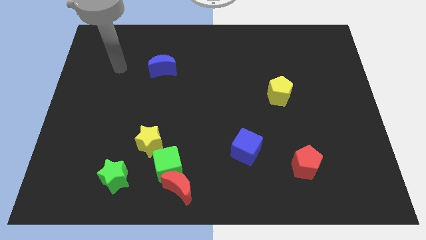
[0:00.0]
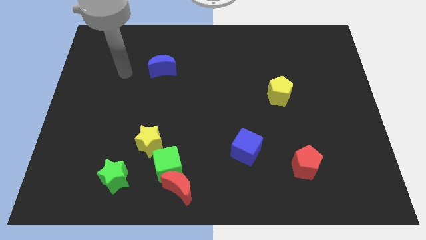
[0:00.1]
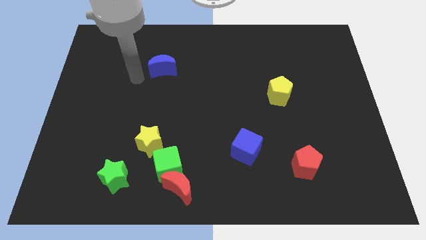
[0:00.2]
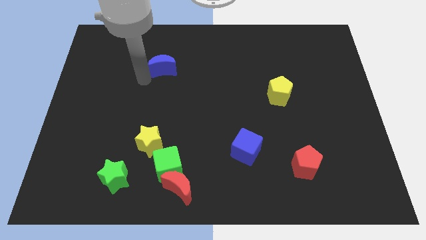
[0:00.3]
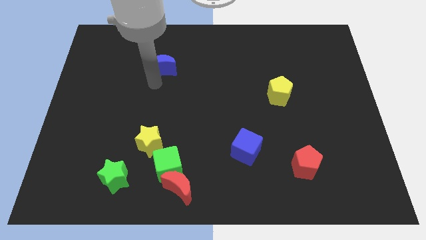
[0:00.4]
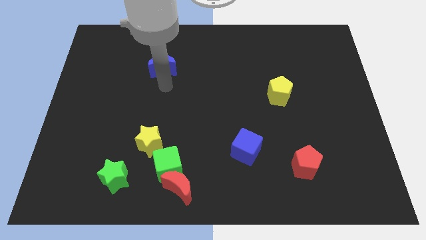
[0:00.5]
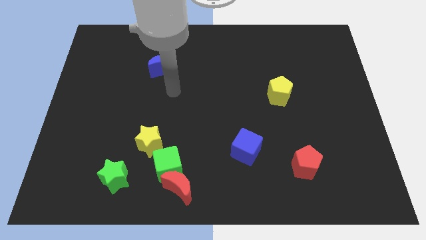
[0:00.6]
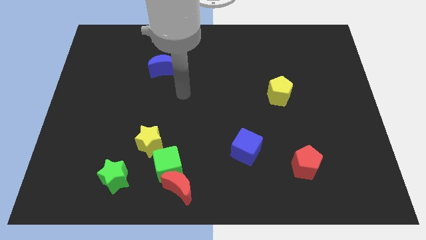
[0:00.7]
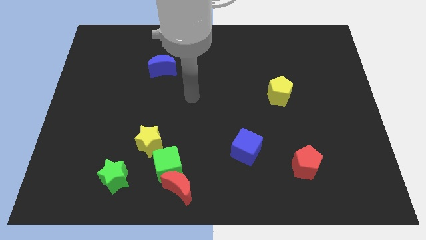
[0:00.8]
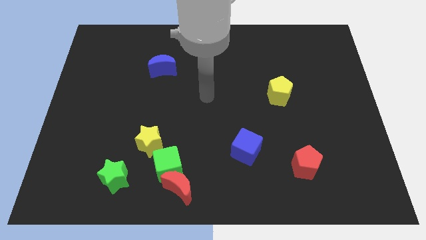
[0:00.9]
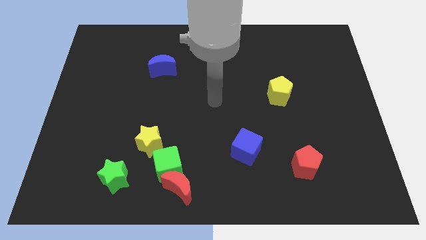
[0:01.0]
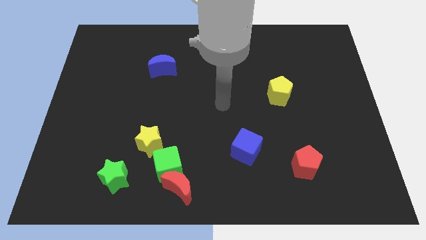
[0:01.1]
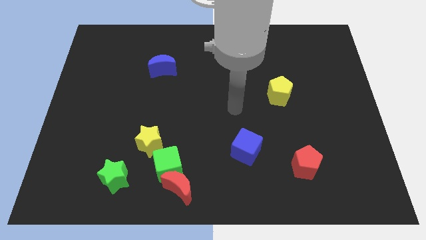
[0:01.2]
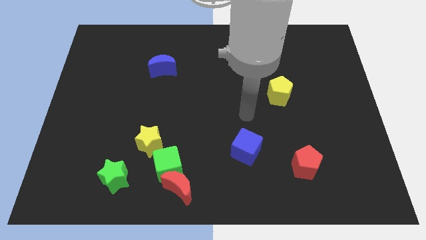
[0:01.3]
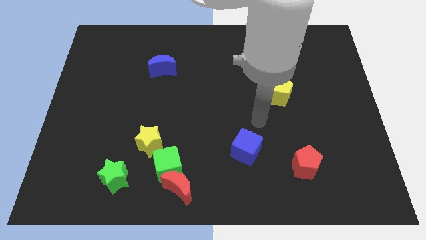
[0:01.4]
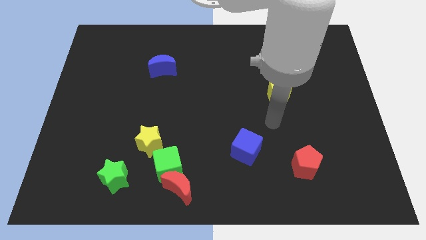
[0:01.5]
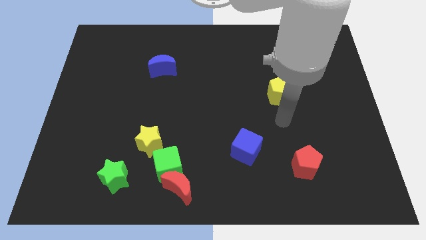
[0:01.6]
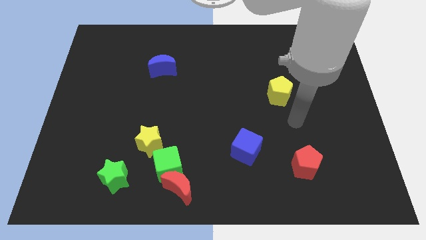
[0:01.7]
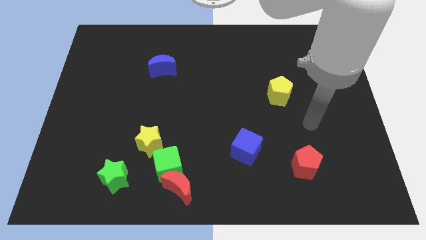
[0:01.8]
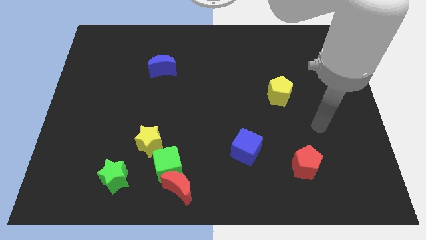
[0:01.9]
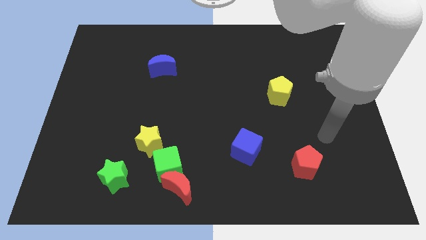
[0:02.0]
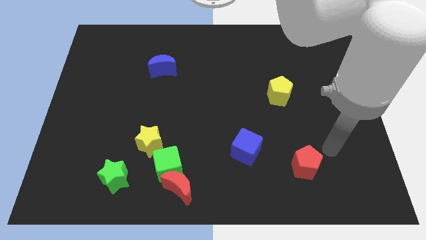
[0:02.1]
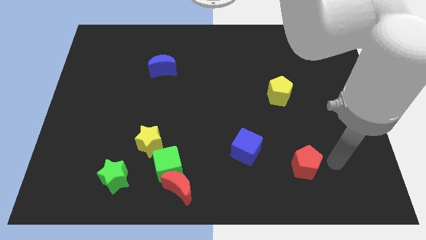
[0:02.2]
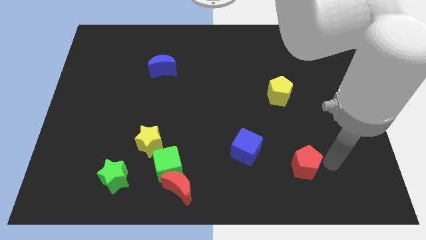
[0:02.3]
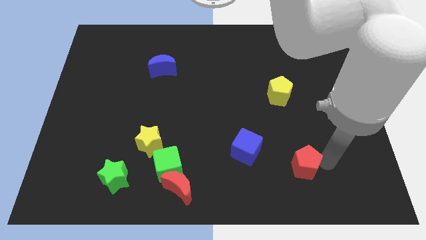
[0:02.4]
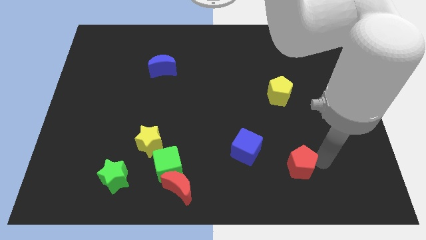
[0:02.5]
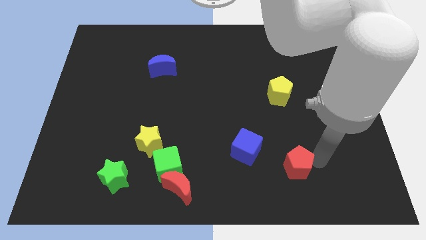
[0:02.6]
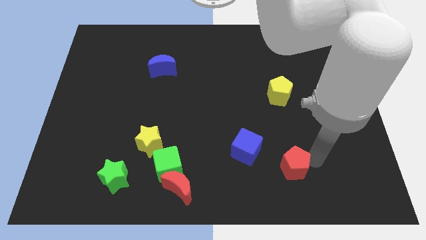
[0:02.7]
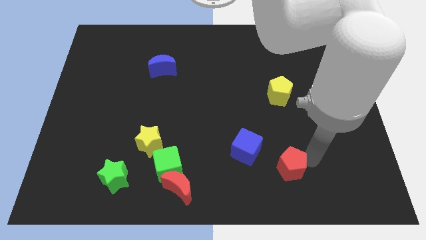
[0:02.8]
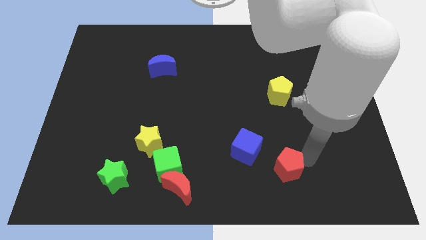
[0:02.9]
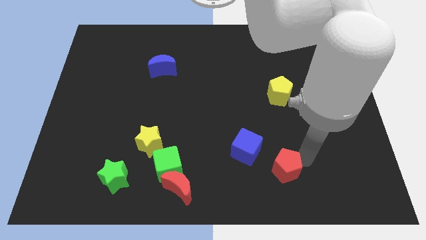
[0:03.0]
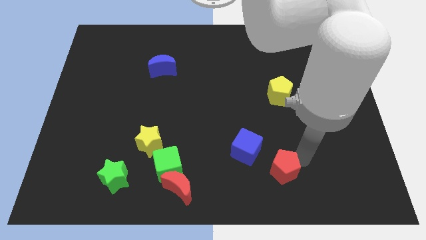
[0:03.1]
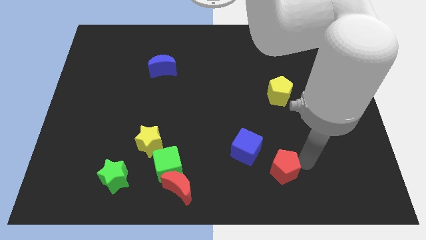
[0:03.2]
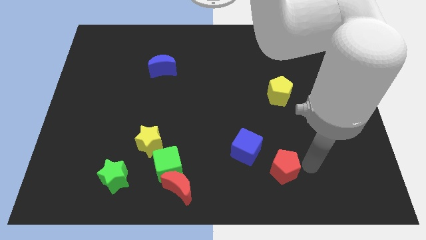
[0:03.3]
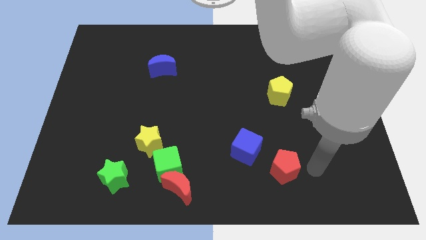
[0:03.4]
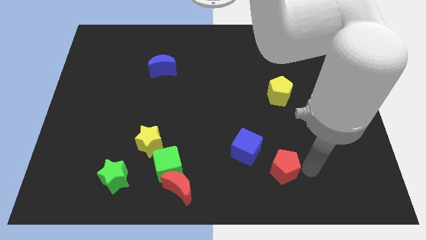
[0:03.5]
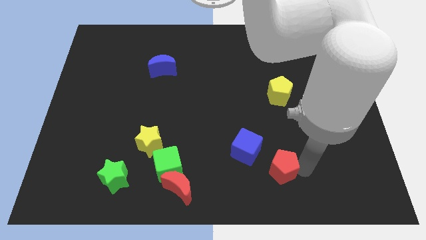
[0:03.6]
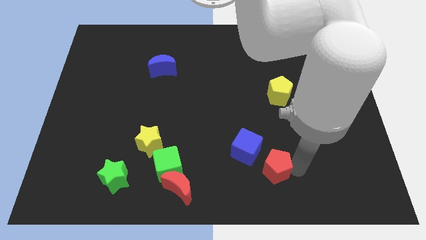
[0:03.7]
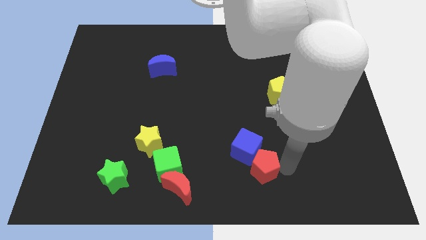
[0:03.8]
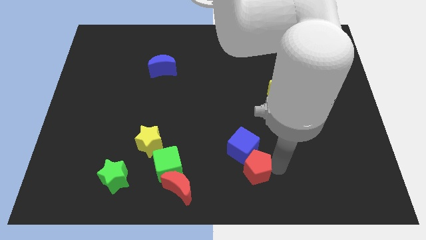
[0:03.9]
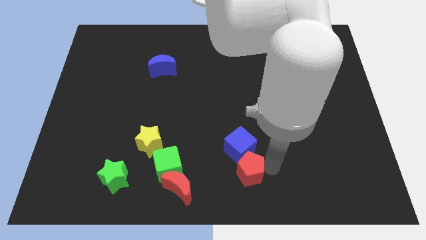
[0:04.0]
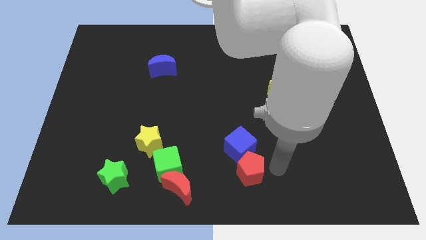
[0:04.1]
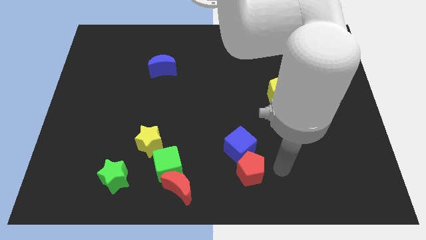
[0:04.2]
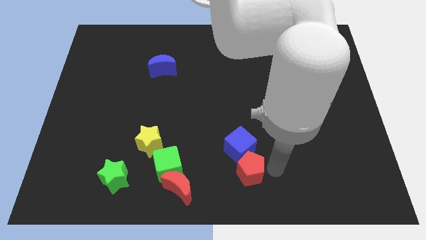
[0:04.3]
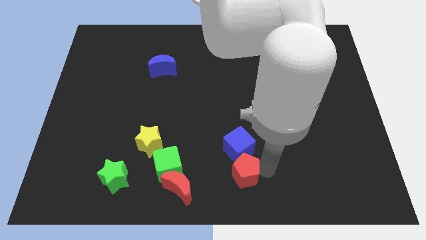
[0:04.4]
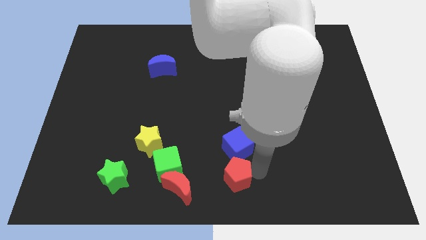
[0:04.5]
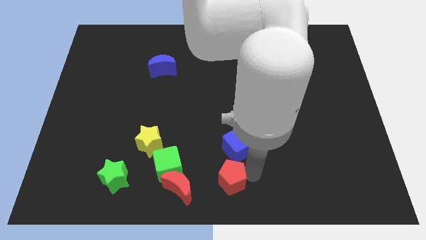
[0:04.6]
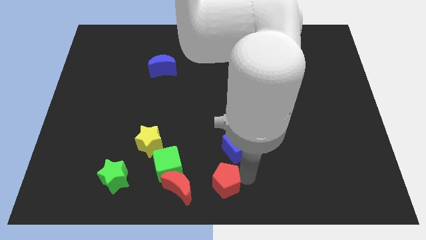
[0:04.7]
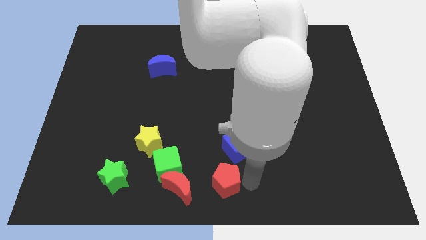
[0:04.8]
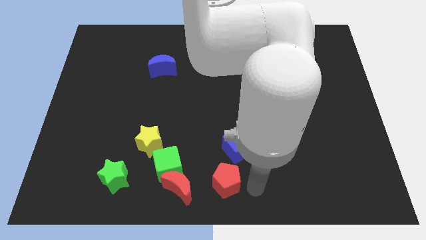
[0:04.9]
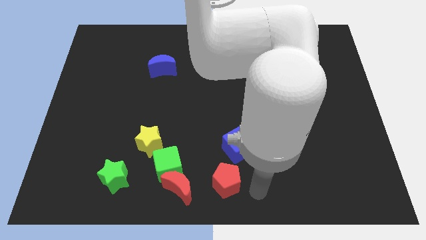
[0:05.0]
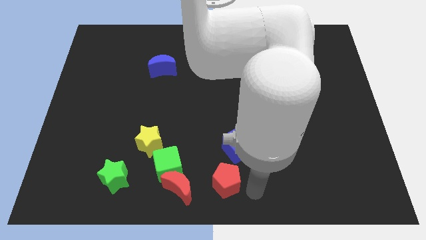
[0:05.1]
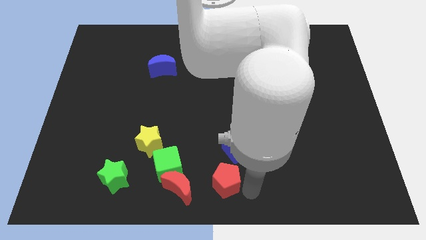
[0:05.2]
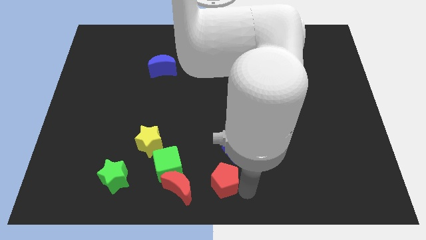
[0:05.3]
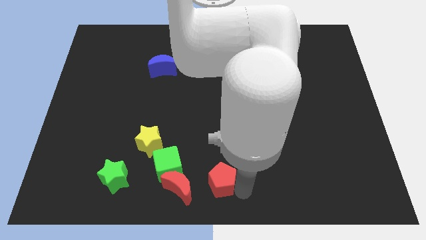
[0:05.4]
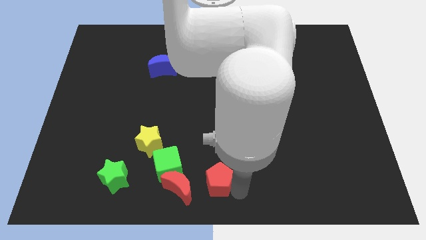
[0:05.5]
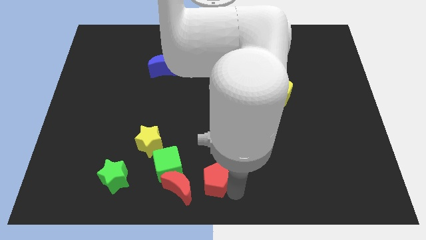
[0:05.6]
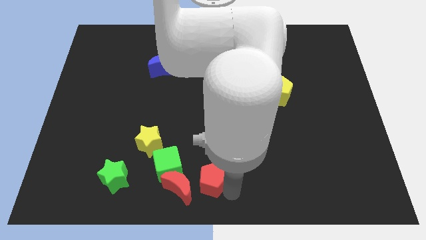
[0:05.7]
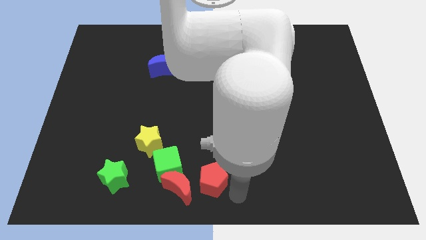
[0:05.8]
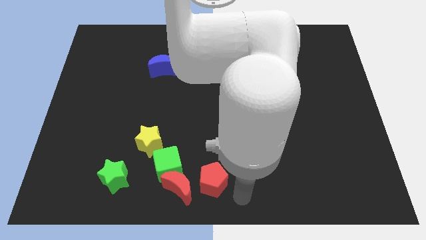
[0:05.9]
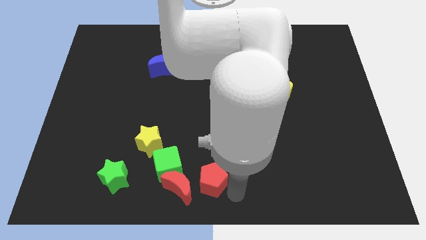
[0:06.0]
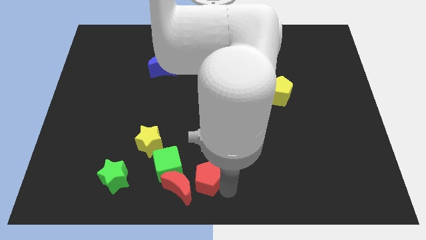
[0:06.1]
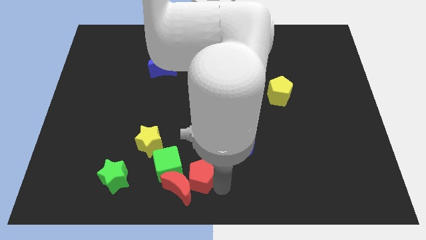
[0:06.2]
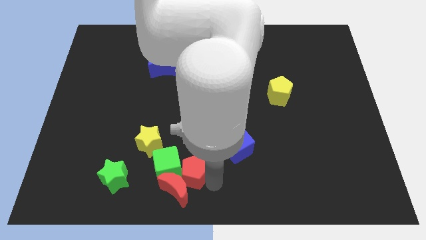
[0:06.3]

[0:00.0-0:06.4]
push the red pentagon close to the green cube

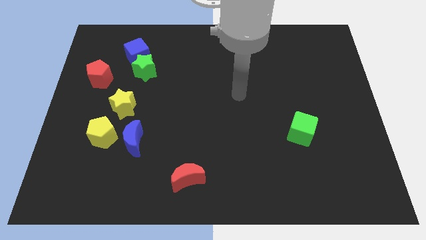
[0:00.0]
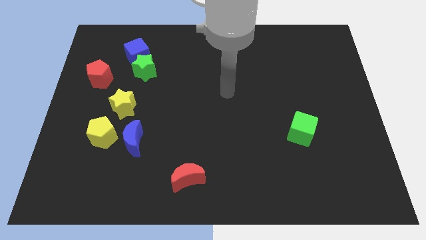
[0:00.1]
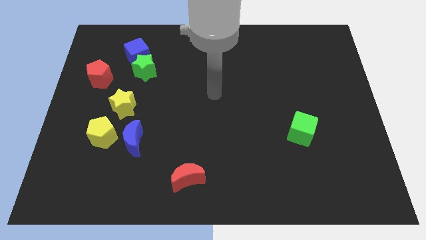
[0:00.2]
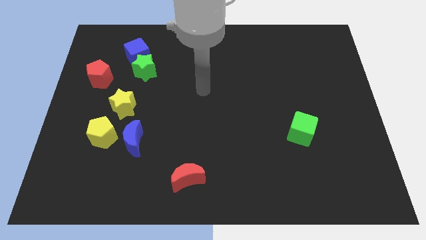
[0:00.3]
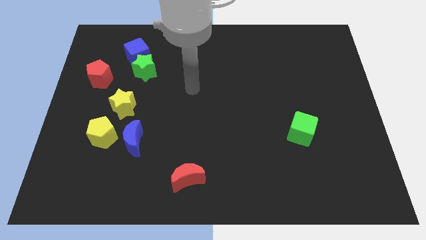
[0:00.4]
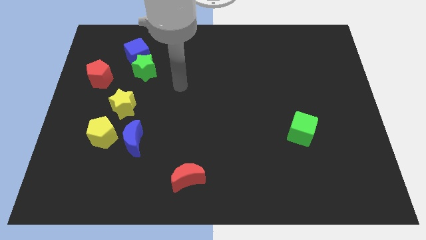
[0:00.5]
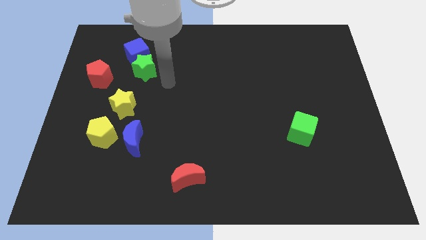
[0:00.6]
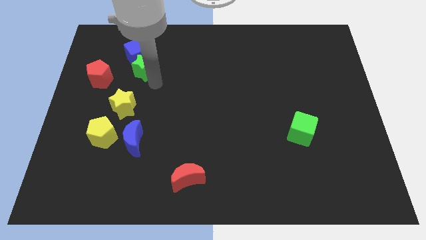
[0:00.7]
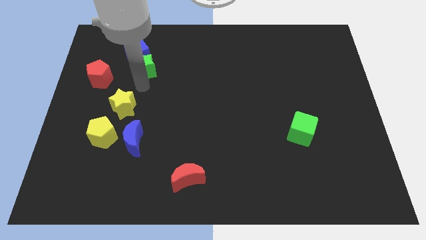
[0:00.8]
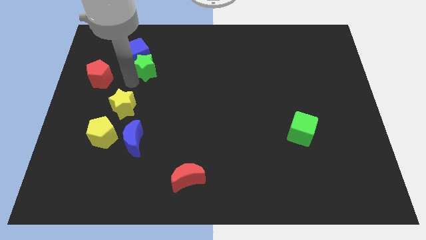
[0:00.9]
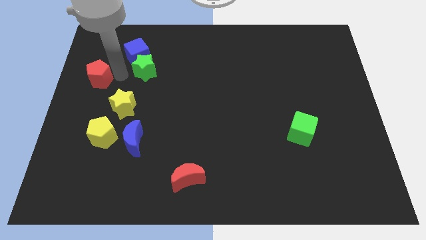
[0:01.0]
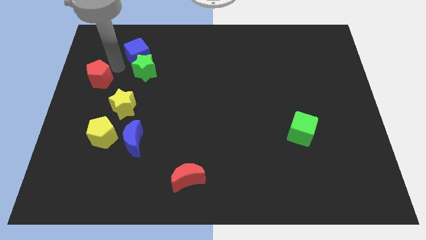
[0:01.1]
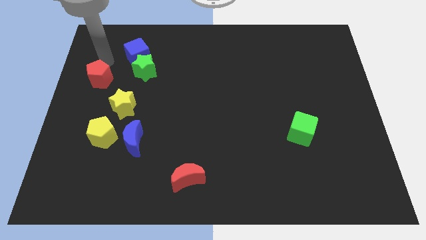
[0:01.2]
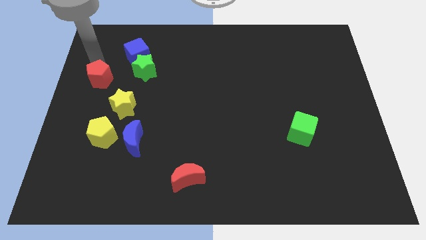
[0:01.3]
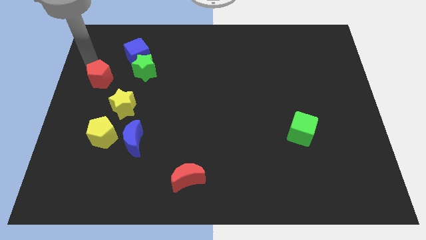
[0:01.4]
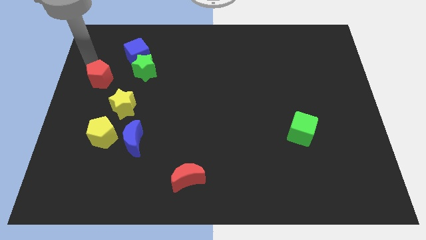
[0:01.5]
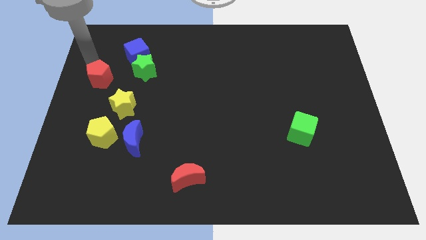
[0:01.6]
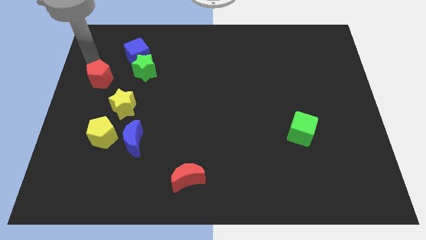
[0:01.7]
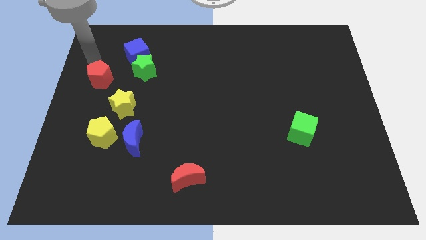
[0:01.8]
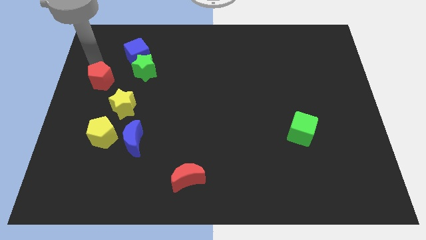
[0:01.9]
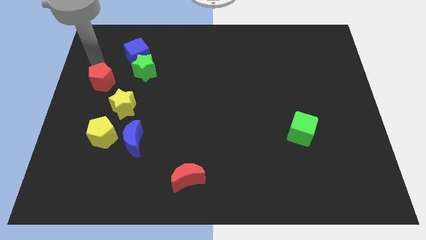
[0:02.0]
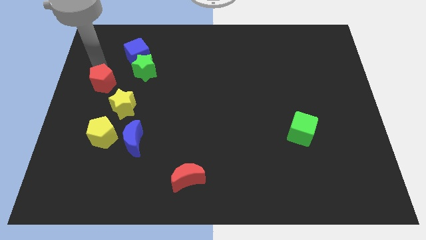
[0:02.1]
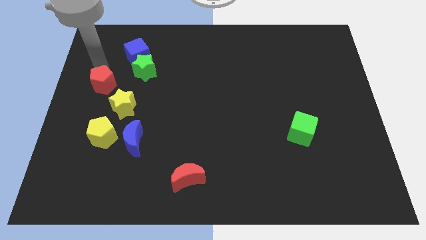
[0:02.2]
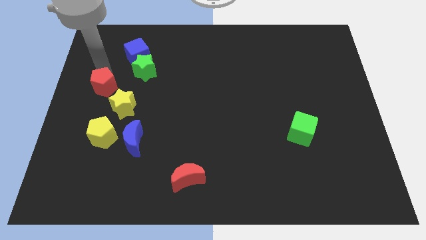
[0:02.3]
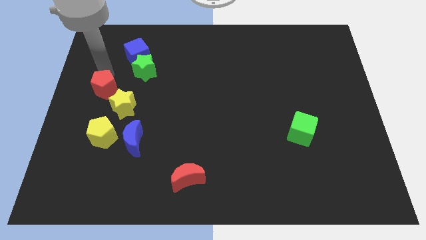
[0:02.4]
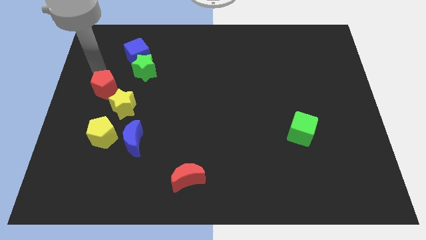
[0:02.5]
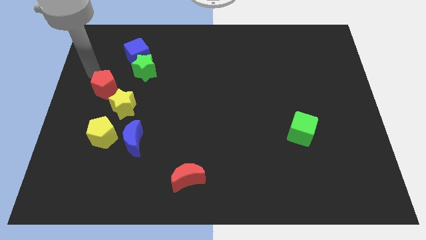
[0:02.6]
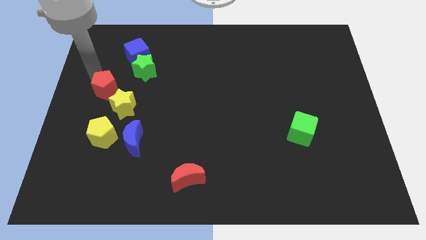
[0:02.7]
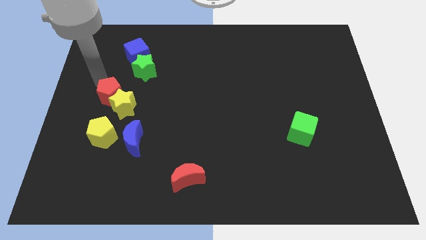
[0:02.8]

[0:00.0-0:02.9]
slide the red pentagon towards the yellow star
